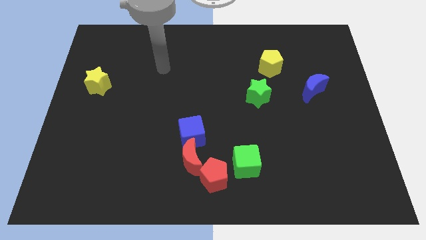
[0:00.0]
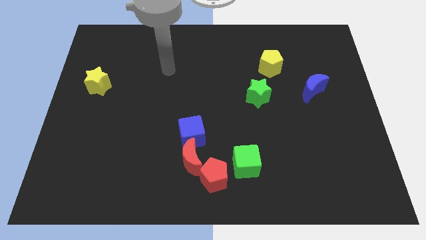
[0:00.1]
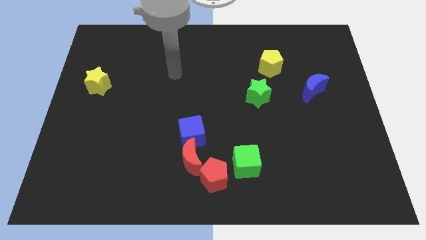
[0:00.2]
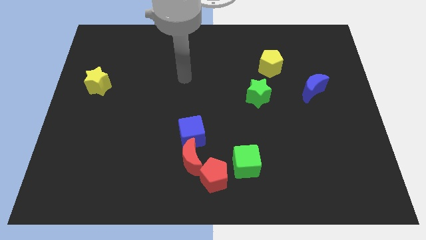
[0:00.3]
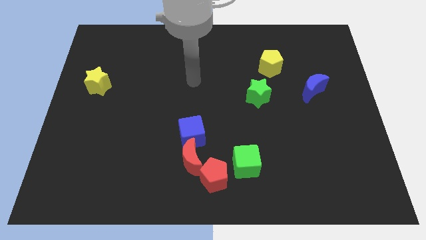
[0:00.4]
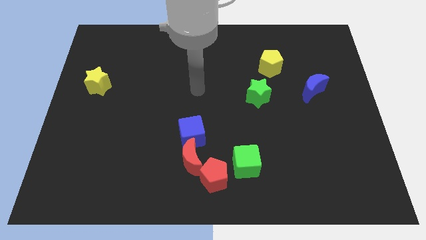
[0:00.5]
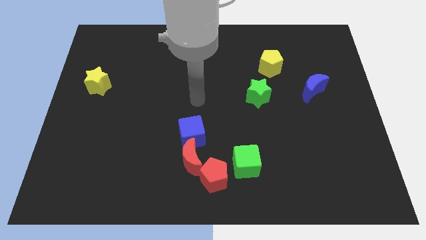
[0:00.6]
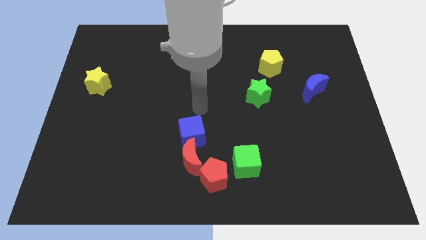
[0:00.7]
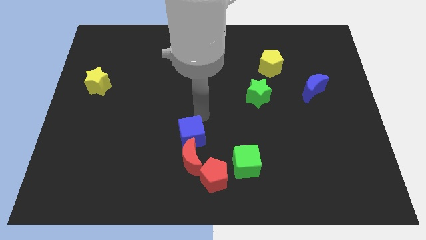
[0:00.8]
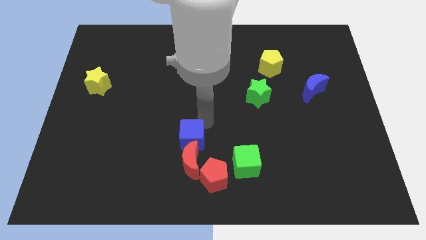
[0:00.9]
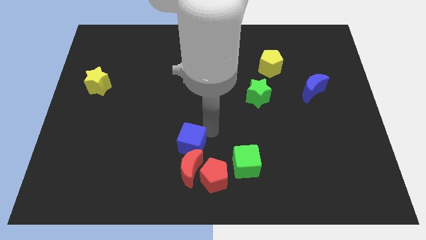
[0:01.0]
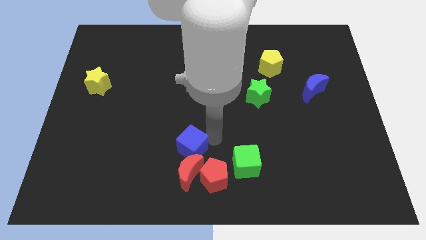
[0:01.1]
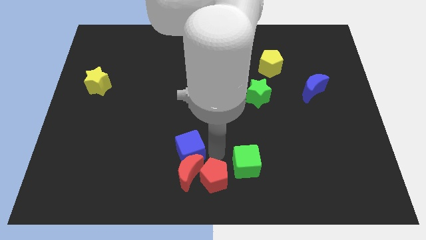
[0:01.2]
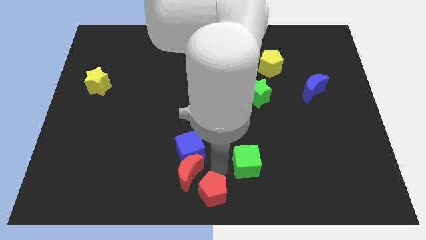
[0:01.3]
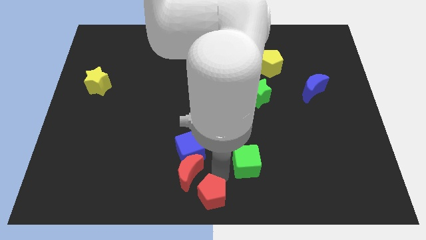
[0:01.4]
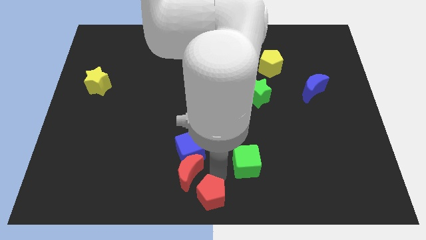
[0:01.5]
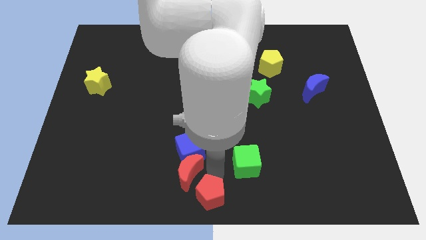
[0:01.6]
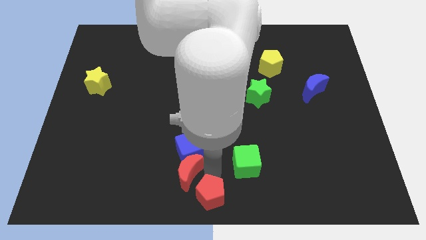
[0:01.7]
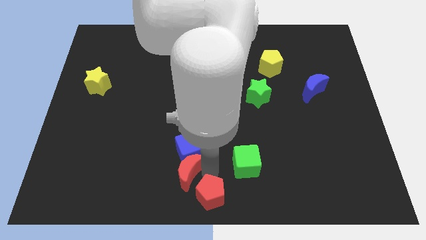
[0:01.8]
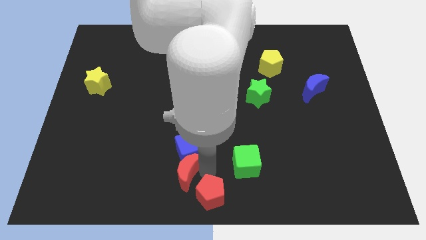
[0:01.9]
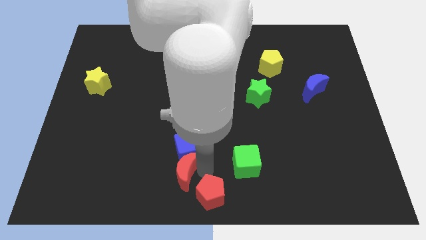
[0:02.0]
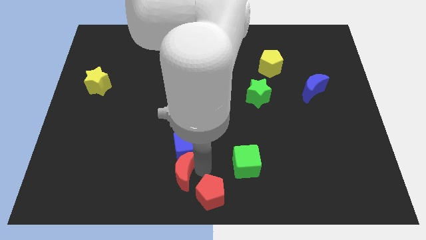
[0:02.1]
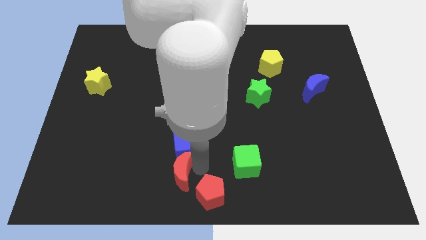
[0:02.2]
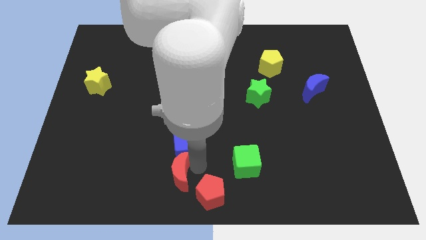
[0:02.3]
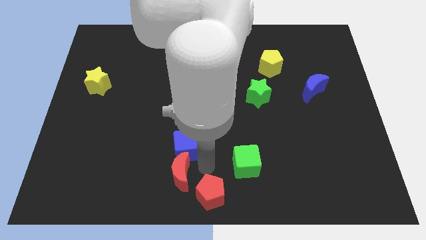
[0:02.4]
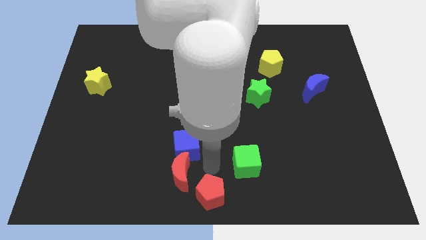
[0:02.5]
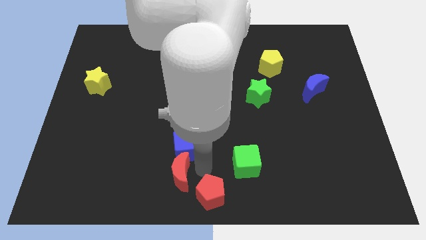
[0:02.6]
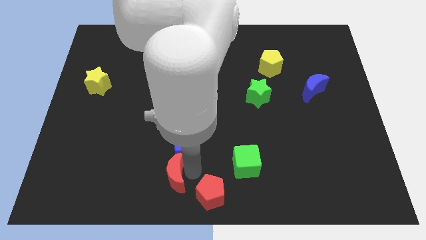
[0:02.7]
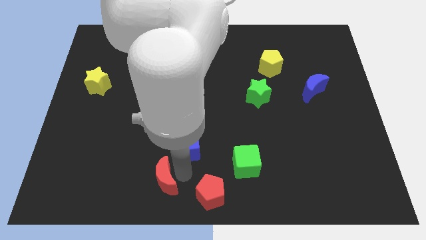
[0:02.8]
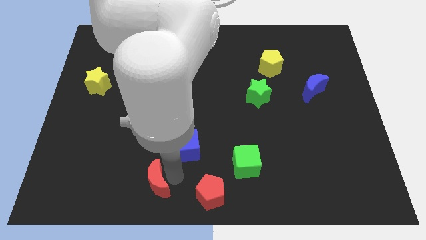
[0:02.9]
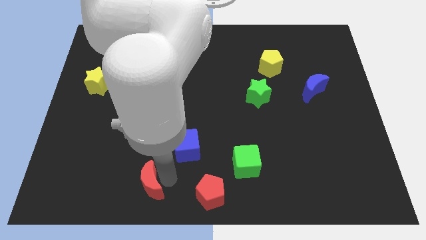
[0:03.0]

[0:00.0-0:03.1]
move the red moon away from the red pentagon and blue cube

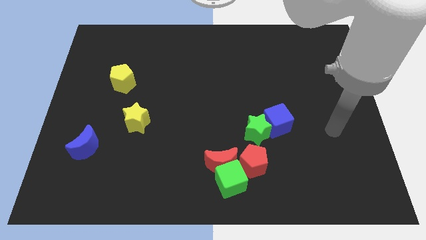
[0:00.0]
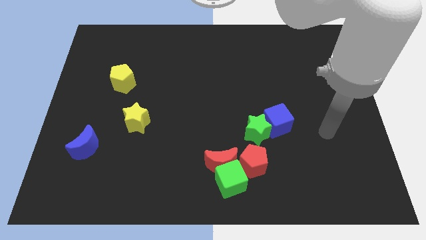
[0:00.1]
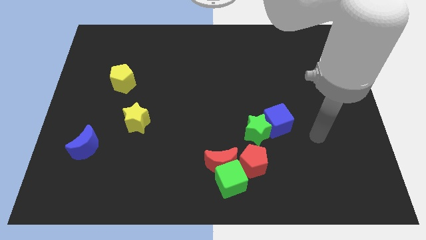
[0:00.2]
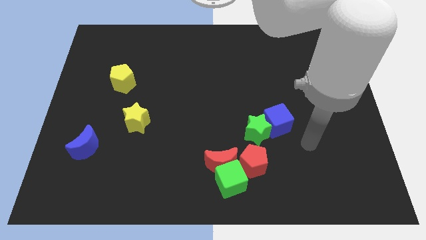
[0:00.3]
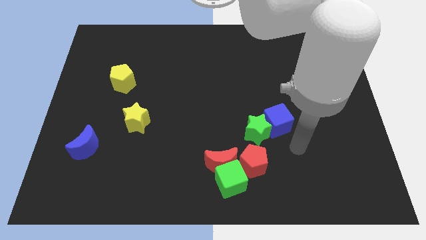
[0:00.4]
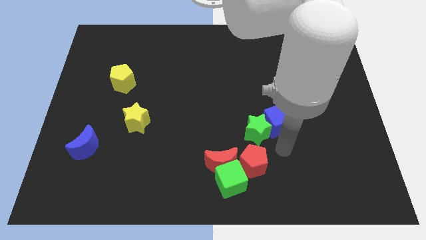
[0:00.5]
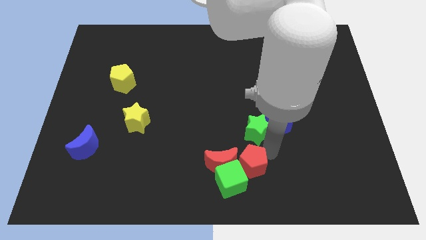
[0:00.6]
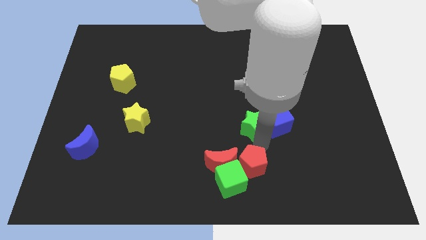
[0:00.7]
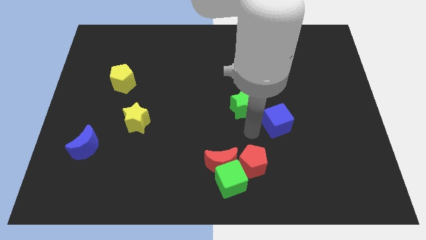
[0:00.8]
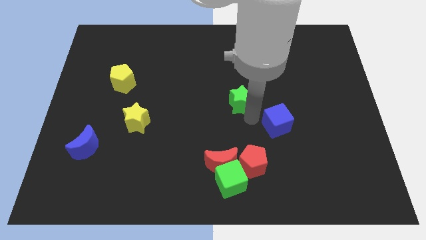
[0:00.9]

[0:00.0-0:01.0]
separate the blue cube from the green star

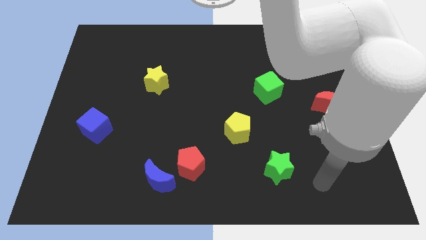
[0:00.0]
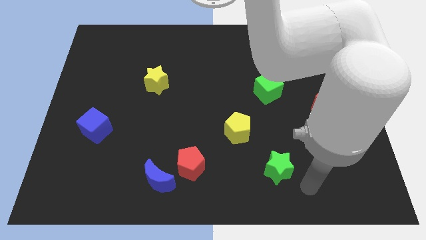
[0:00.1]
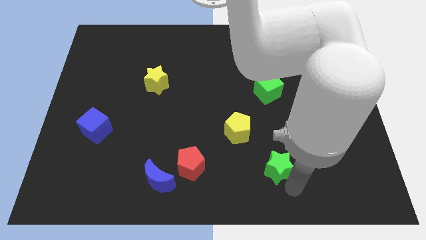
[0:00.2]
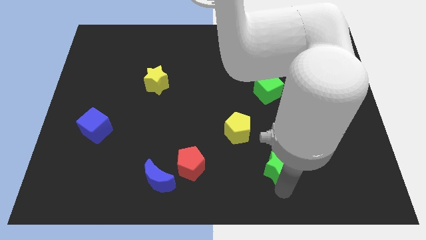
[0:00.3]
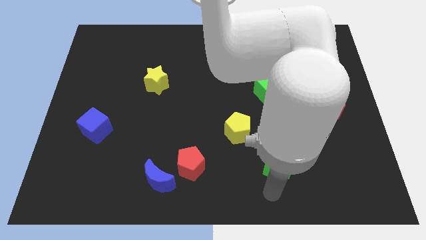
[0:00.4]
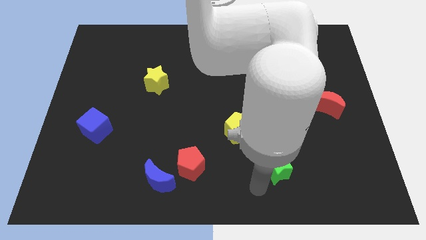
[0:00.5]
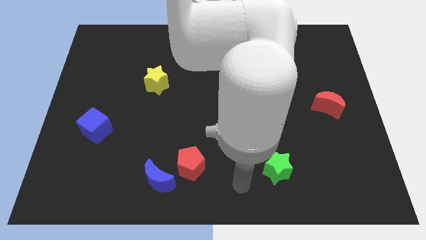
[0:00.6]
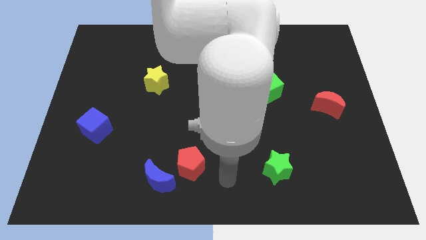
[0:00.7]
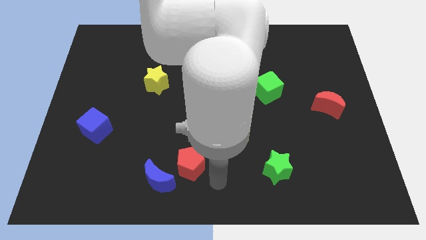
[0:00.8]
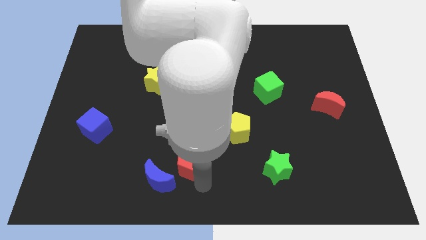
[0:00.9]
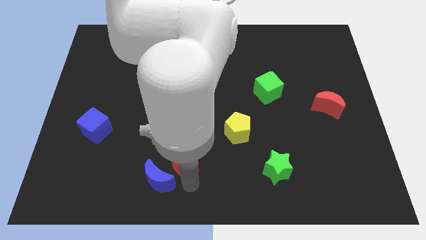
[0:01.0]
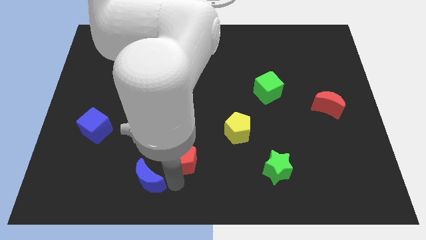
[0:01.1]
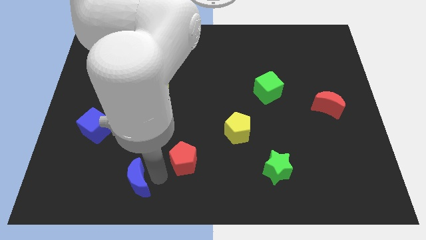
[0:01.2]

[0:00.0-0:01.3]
pull the red pentagon apart from the blue moon

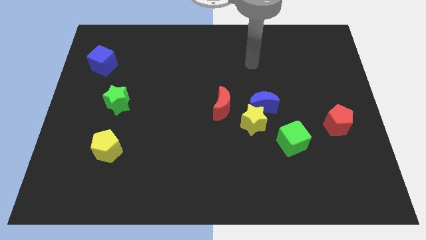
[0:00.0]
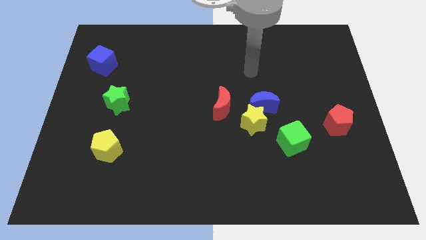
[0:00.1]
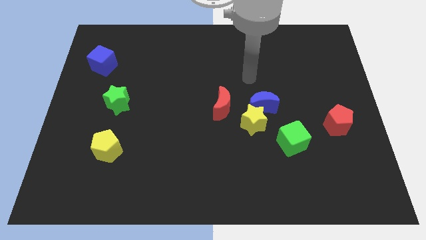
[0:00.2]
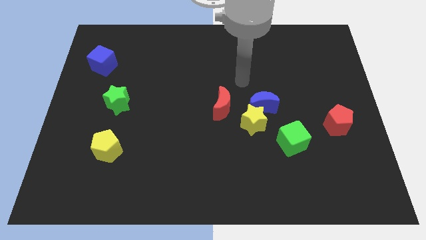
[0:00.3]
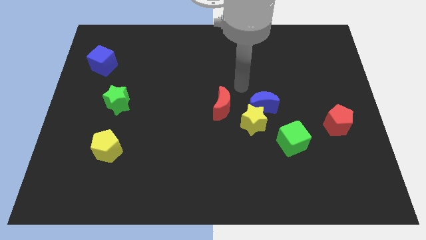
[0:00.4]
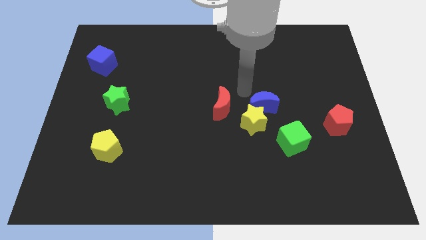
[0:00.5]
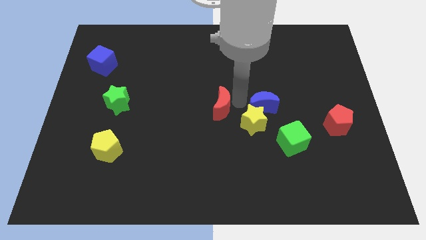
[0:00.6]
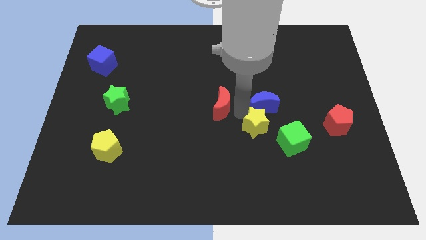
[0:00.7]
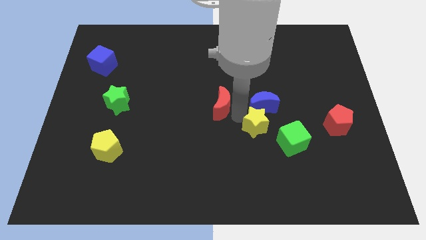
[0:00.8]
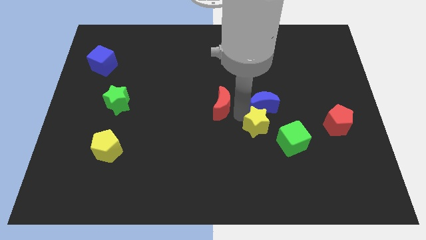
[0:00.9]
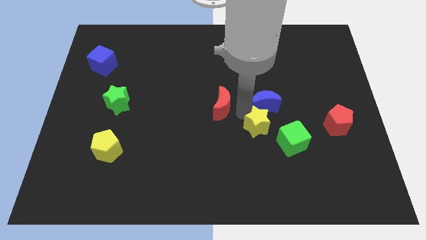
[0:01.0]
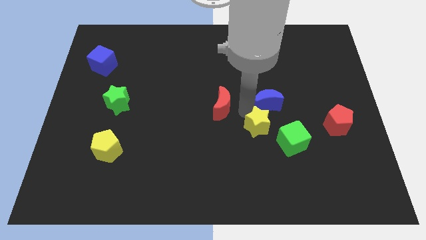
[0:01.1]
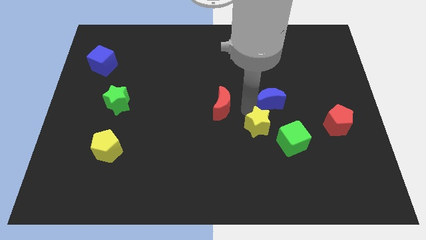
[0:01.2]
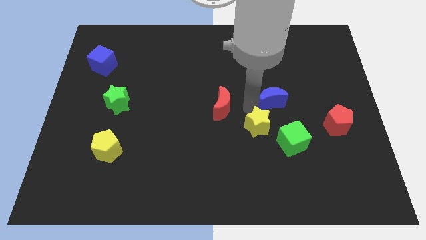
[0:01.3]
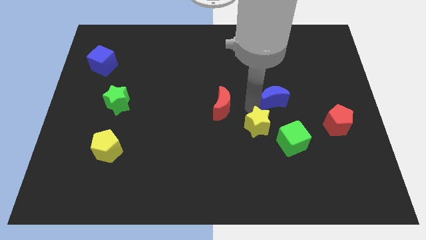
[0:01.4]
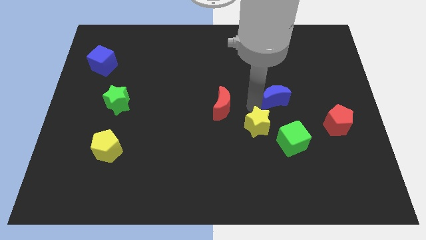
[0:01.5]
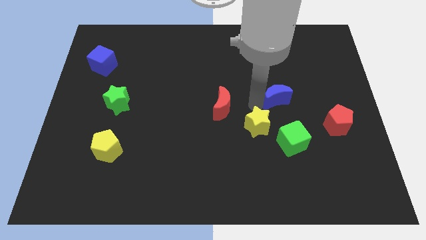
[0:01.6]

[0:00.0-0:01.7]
move the blue moon away from the yellow star and red moon

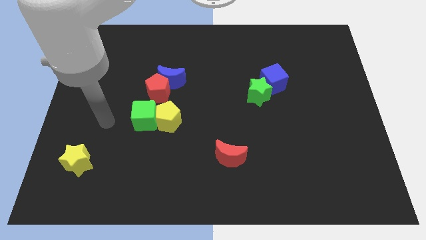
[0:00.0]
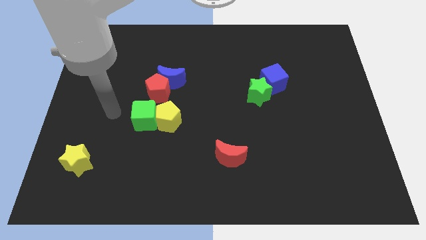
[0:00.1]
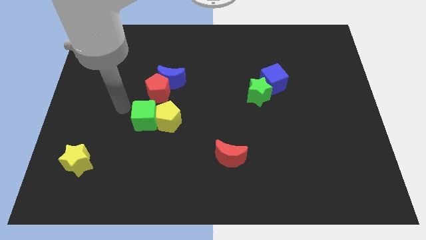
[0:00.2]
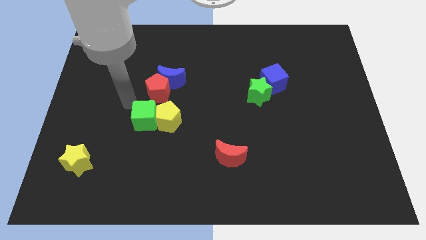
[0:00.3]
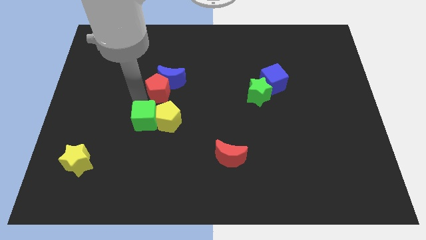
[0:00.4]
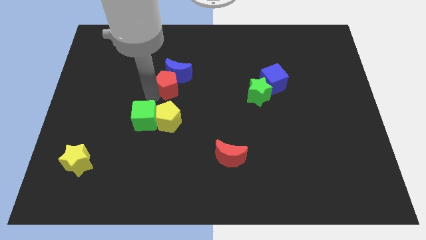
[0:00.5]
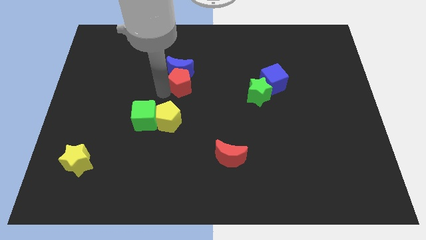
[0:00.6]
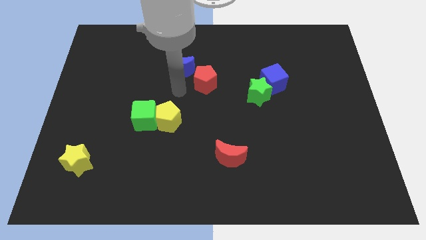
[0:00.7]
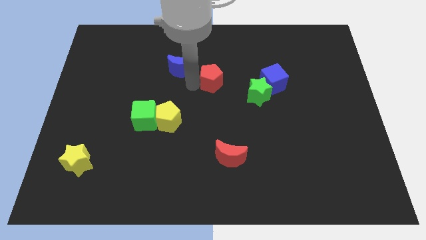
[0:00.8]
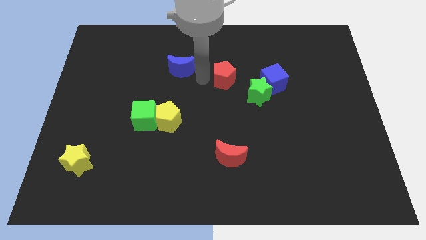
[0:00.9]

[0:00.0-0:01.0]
pull the blue moon apart from the red pentagon

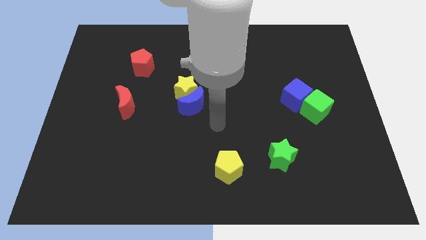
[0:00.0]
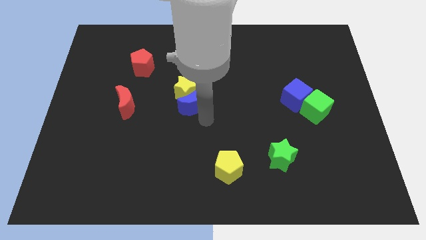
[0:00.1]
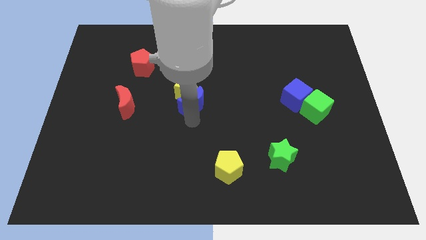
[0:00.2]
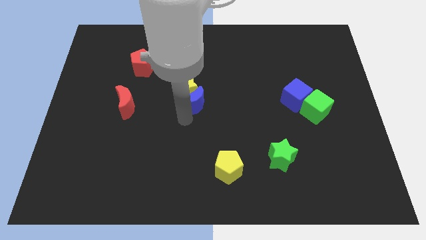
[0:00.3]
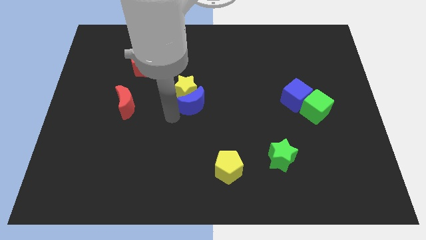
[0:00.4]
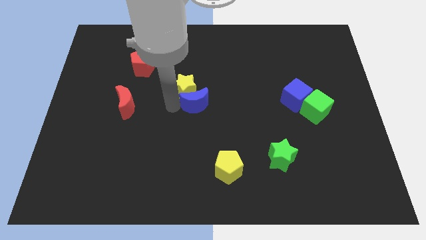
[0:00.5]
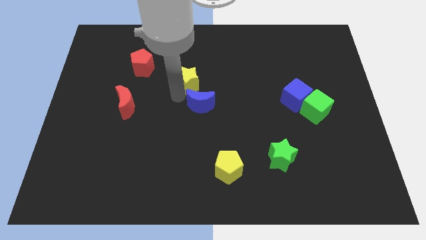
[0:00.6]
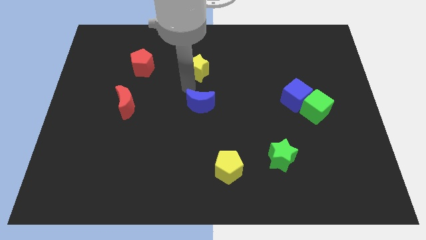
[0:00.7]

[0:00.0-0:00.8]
move the blue moon away from the yellow star

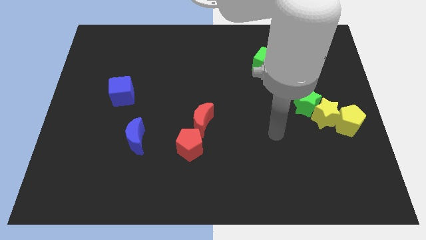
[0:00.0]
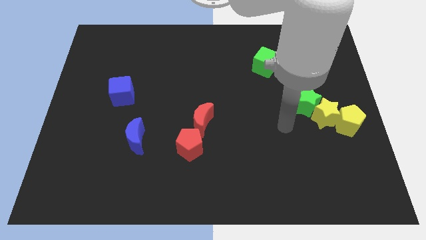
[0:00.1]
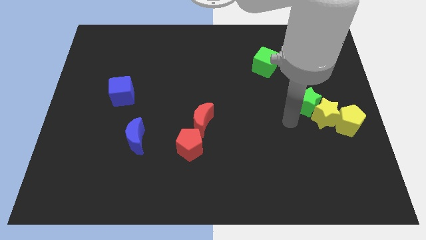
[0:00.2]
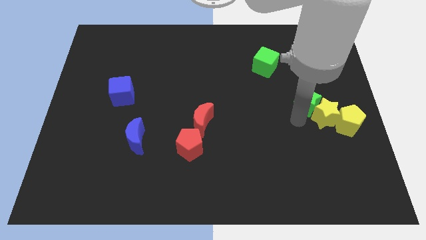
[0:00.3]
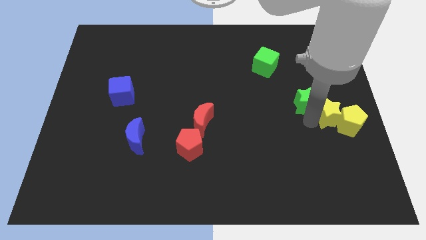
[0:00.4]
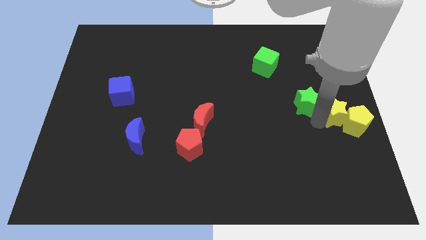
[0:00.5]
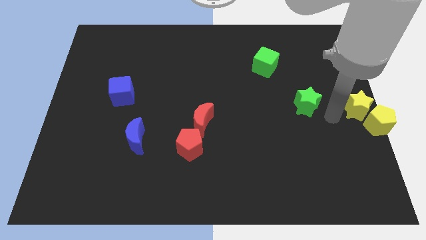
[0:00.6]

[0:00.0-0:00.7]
separate the green star from the yellow star
